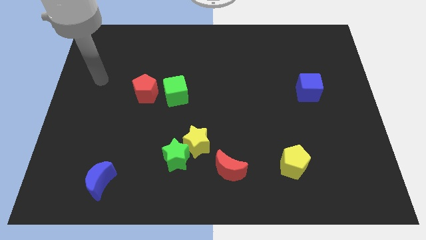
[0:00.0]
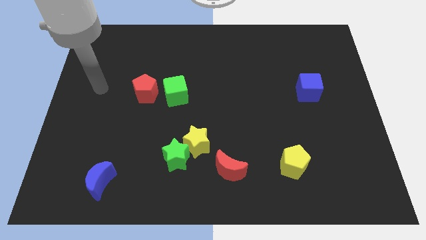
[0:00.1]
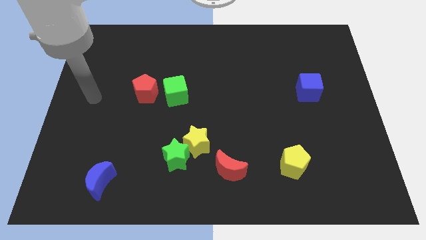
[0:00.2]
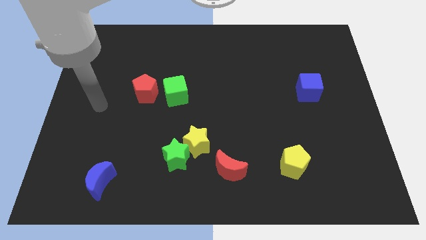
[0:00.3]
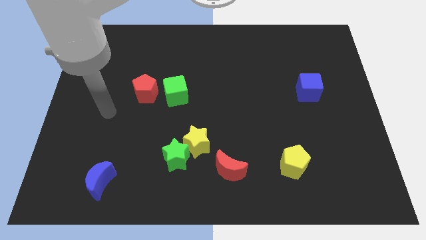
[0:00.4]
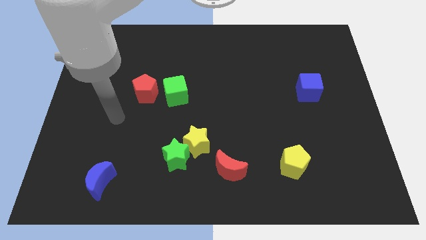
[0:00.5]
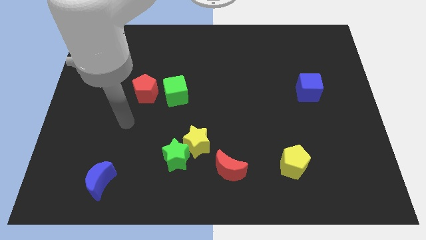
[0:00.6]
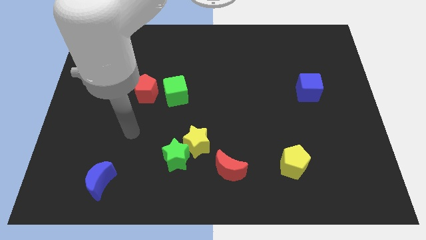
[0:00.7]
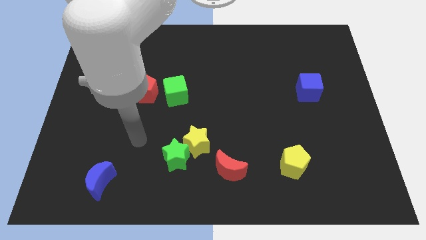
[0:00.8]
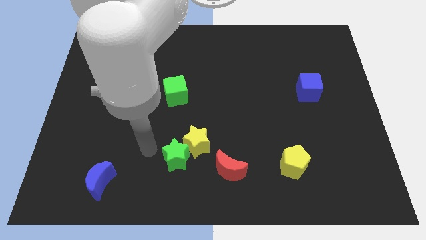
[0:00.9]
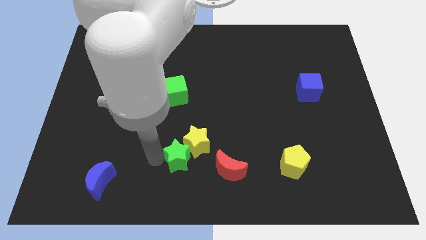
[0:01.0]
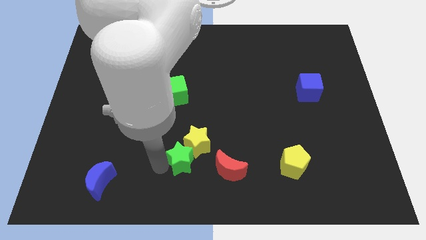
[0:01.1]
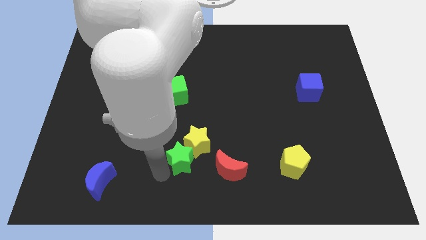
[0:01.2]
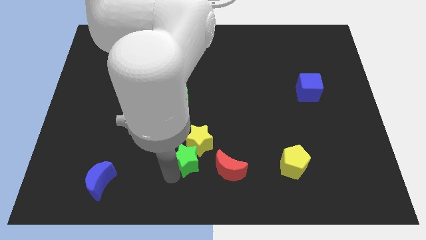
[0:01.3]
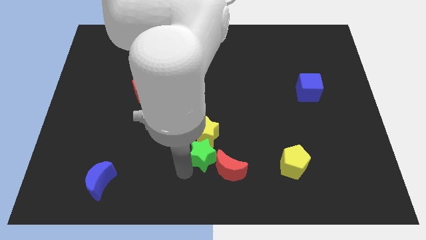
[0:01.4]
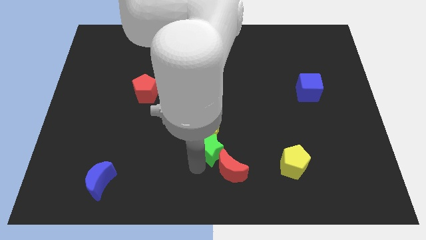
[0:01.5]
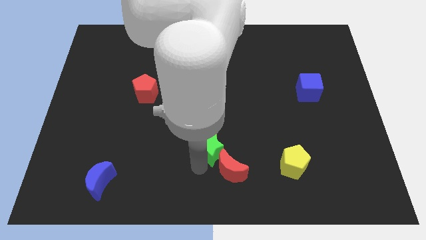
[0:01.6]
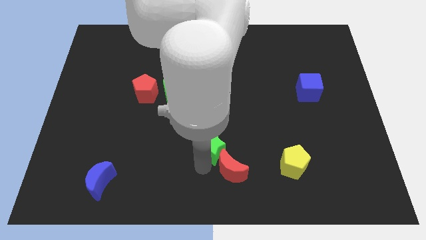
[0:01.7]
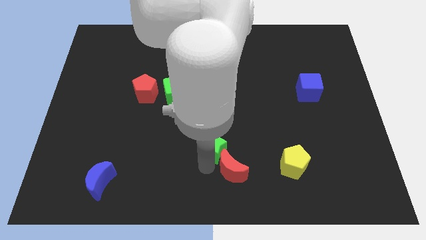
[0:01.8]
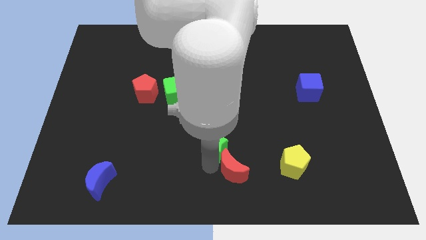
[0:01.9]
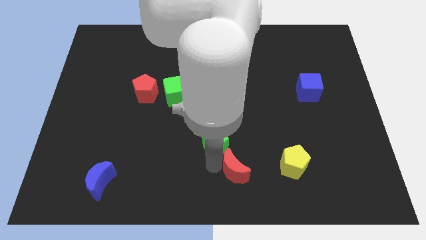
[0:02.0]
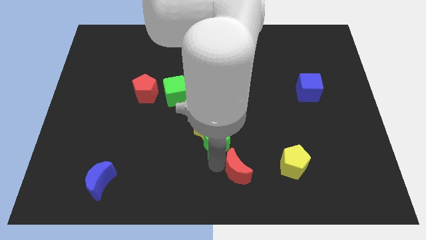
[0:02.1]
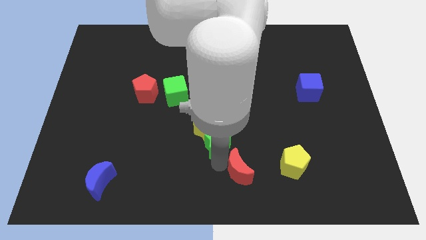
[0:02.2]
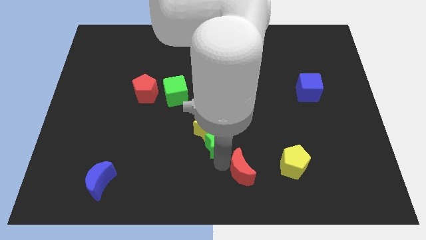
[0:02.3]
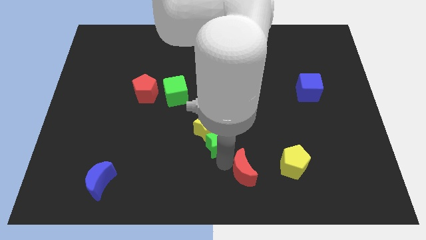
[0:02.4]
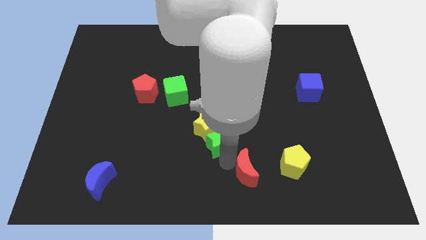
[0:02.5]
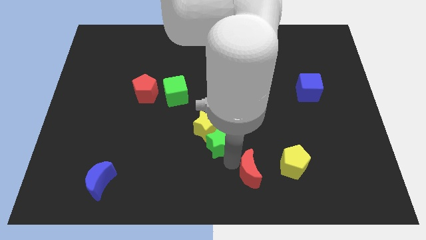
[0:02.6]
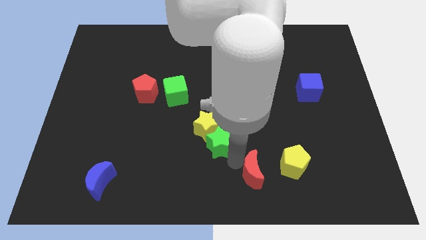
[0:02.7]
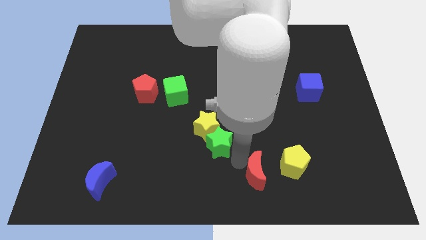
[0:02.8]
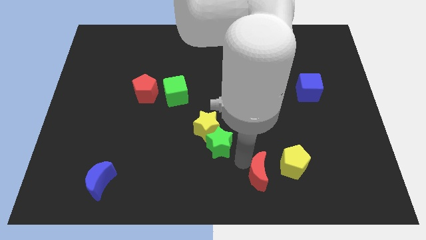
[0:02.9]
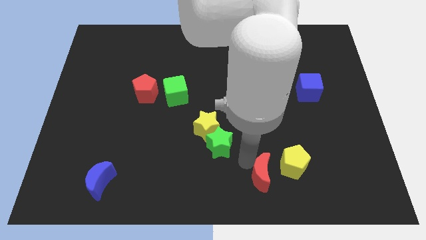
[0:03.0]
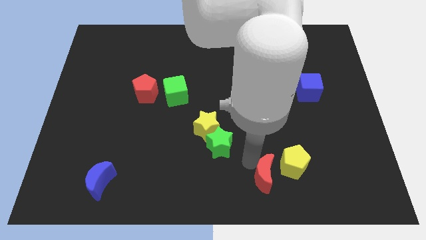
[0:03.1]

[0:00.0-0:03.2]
slightly slide the red moon to the right

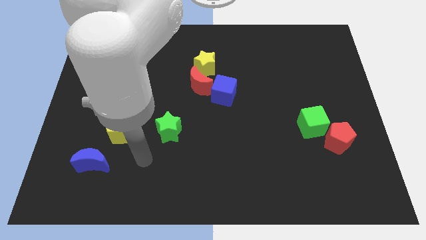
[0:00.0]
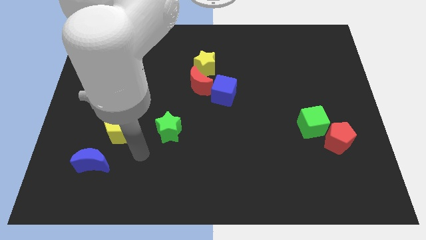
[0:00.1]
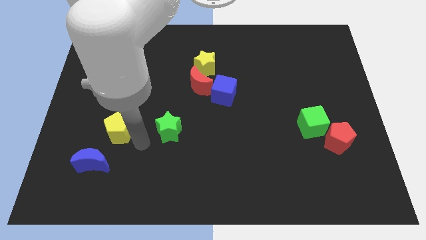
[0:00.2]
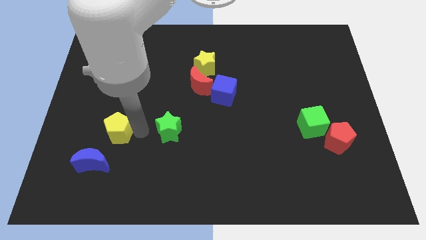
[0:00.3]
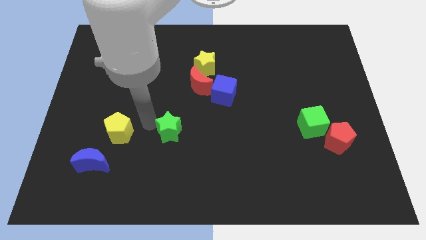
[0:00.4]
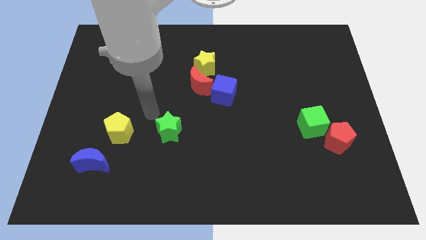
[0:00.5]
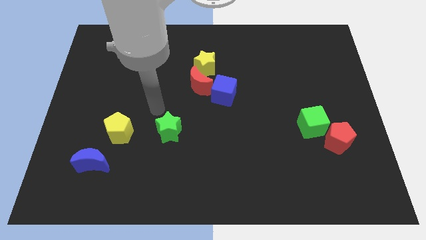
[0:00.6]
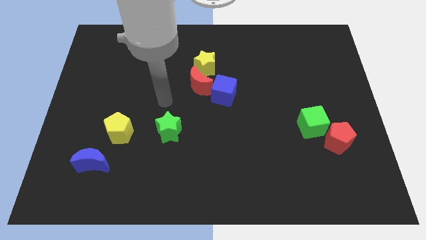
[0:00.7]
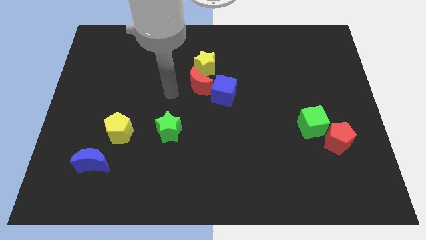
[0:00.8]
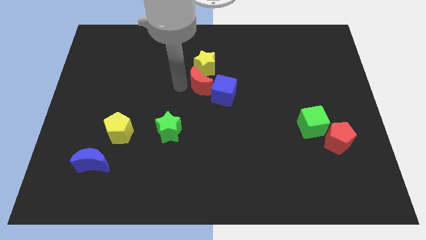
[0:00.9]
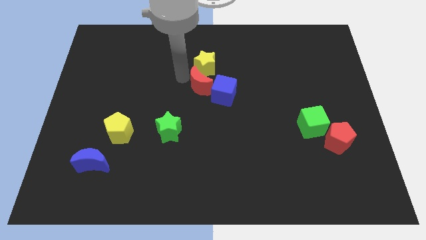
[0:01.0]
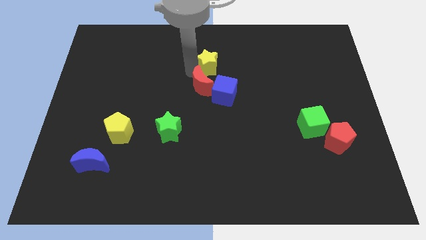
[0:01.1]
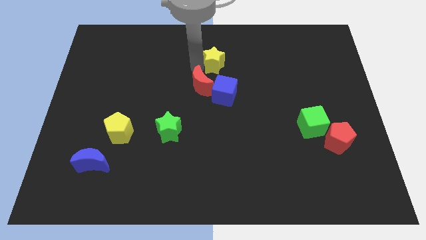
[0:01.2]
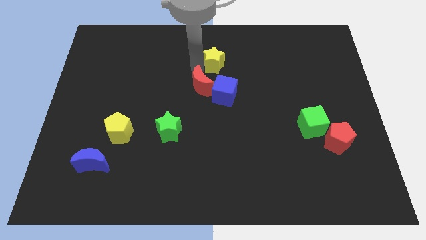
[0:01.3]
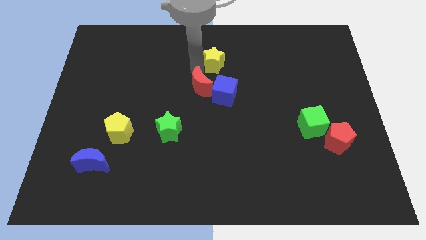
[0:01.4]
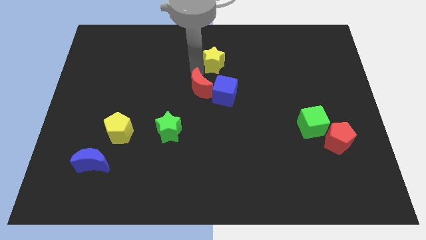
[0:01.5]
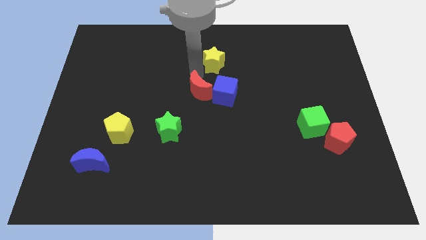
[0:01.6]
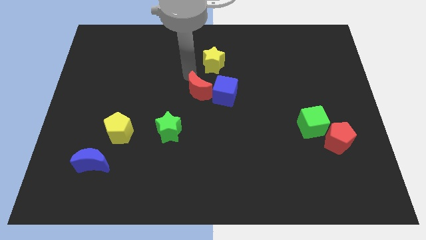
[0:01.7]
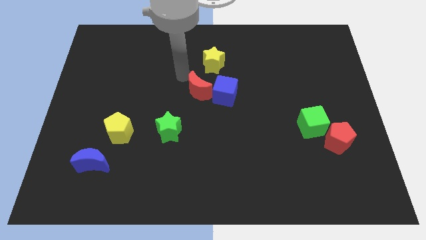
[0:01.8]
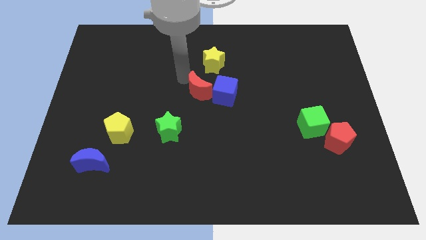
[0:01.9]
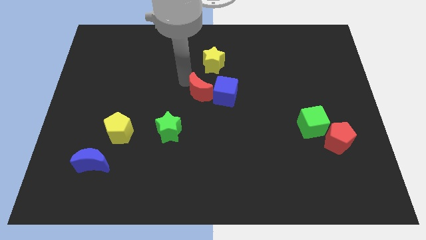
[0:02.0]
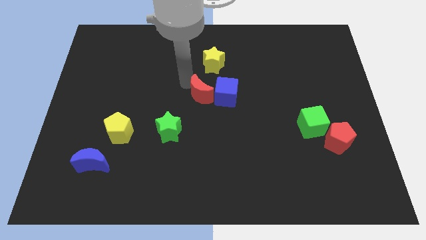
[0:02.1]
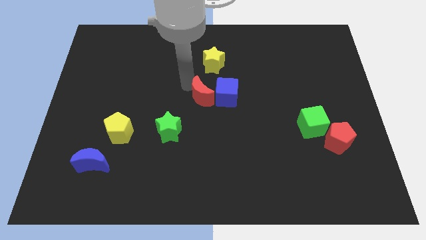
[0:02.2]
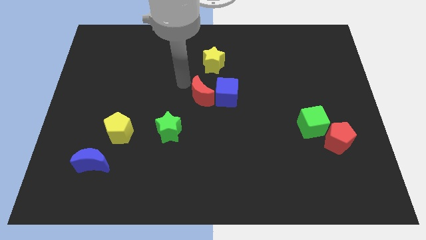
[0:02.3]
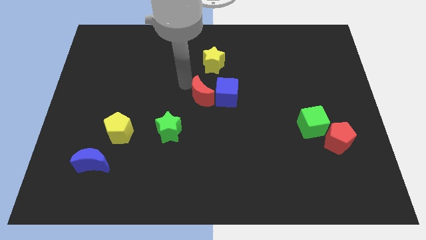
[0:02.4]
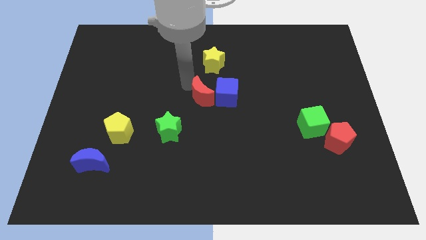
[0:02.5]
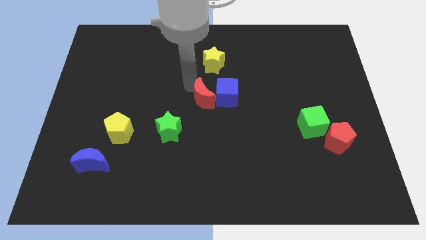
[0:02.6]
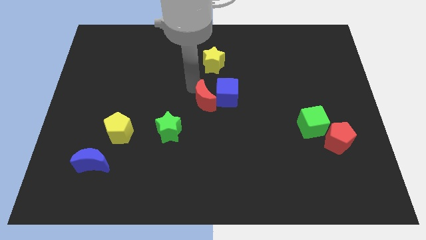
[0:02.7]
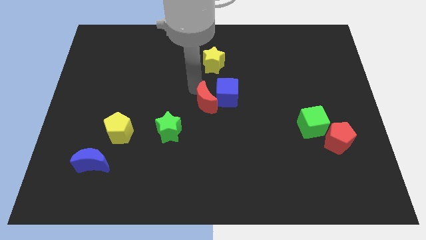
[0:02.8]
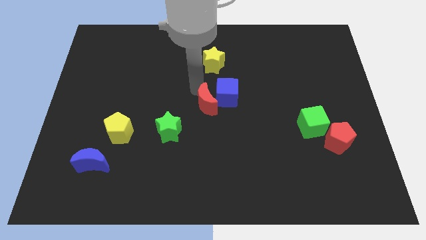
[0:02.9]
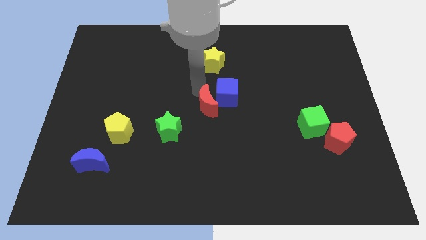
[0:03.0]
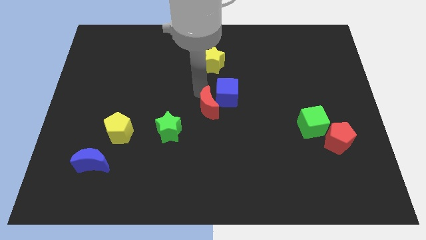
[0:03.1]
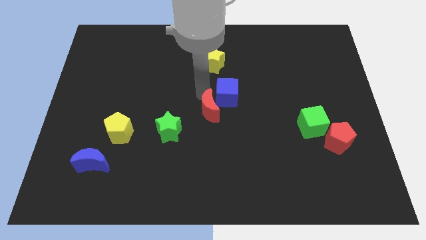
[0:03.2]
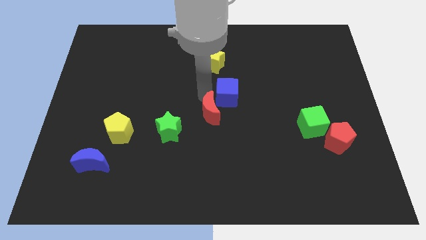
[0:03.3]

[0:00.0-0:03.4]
slightly move the red moon down and then to the right

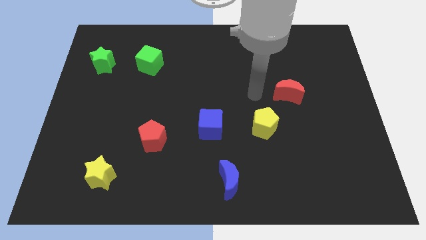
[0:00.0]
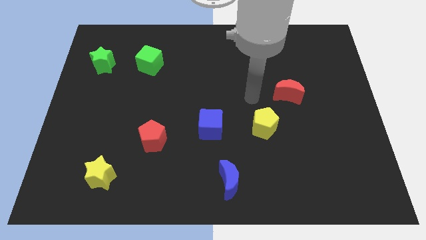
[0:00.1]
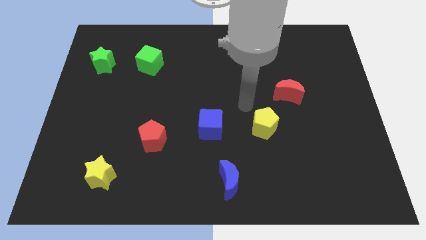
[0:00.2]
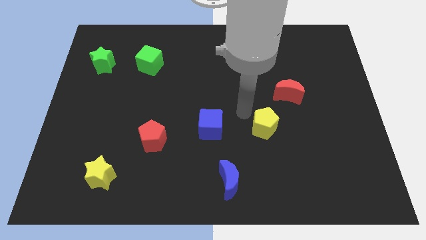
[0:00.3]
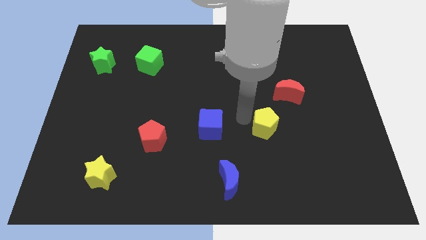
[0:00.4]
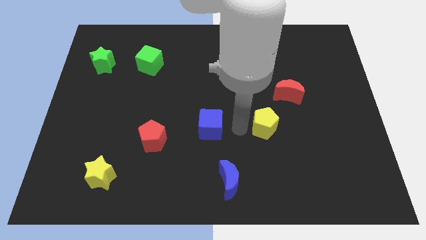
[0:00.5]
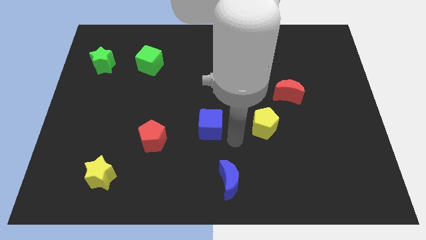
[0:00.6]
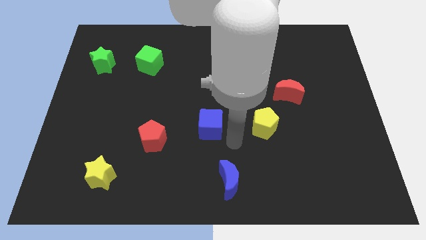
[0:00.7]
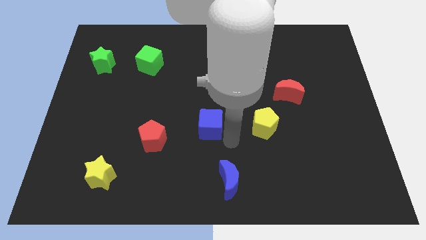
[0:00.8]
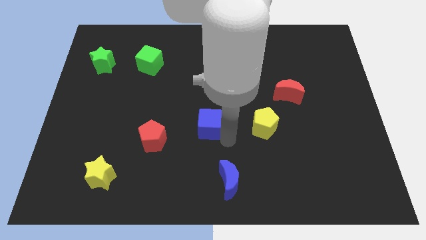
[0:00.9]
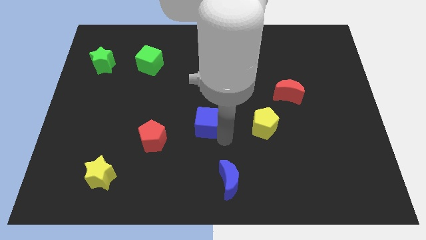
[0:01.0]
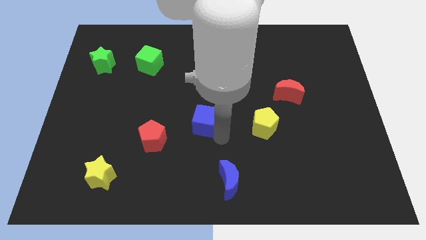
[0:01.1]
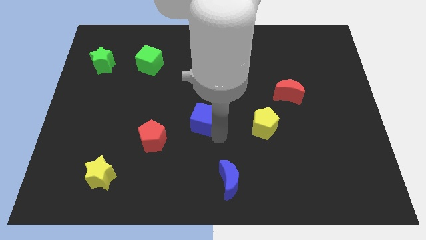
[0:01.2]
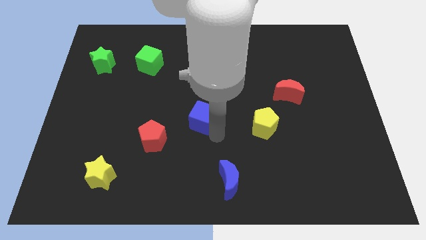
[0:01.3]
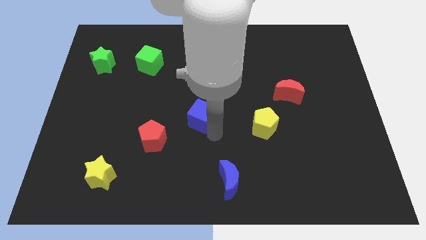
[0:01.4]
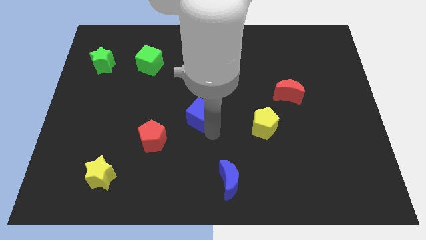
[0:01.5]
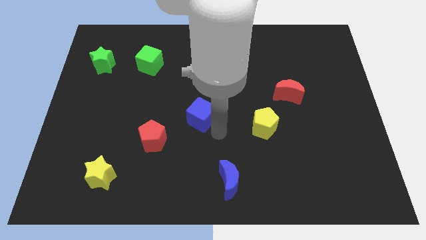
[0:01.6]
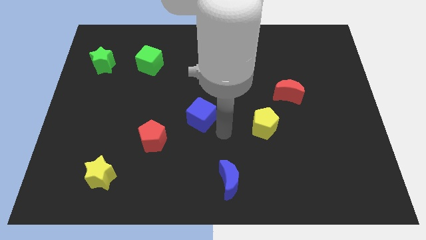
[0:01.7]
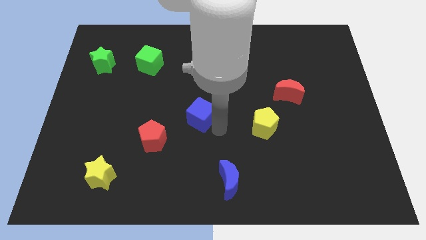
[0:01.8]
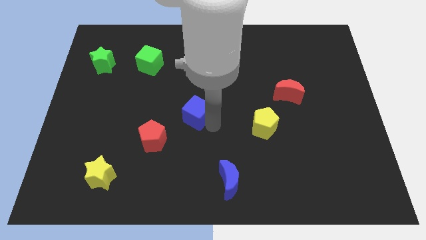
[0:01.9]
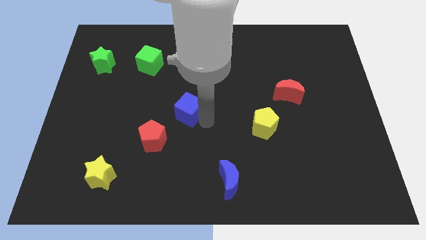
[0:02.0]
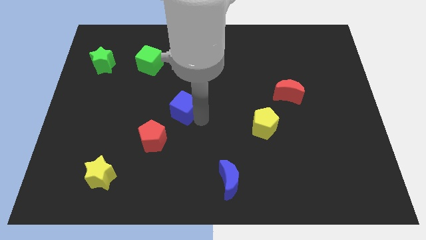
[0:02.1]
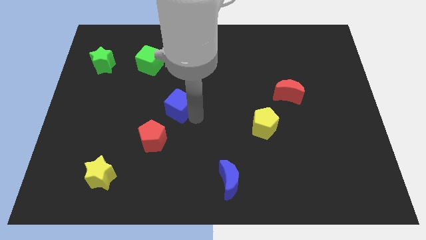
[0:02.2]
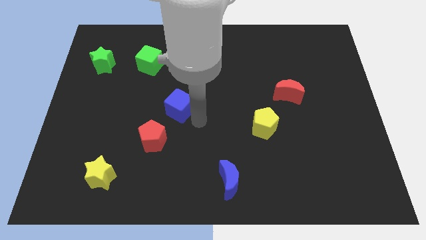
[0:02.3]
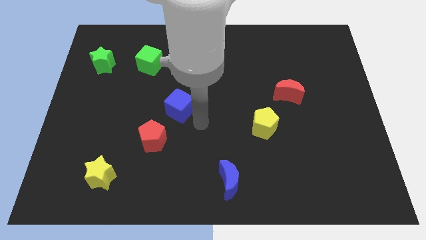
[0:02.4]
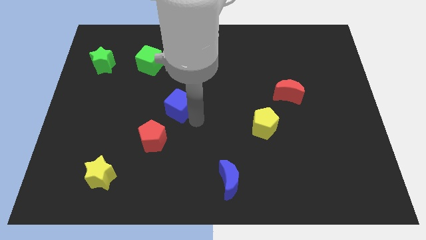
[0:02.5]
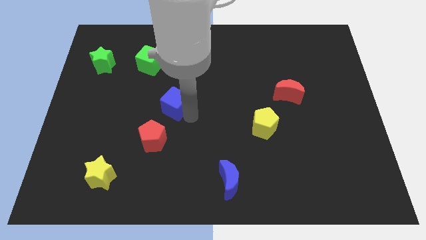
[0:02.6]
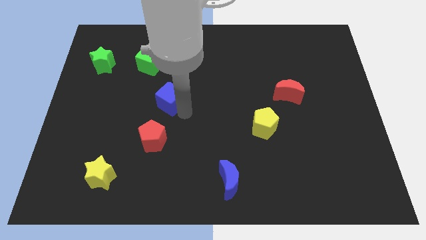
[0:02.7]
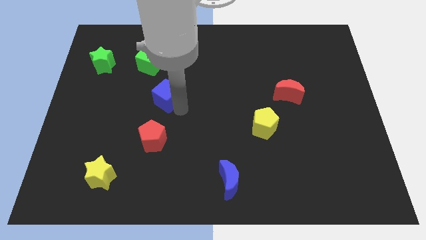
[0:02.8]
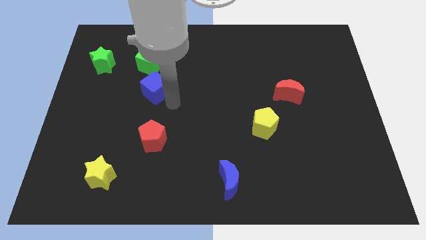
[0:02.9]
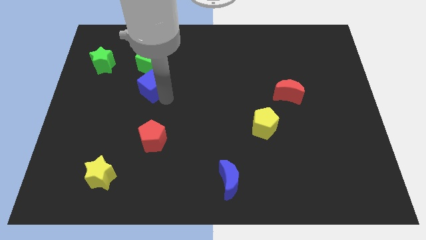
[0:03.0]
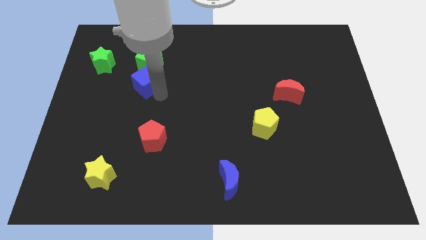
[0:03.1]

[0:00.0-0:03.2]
push the blue cube upwards and to the left
